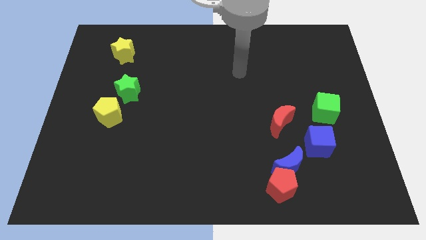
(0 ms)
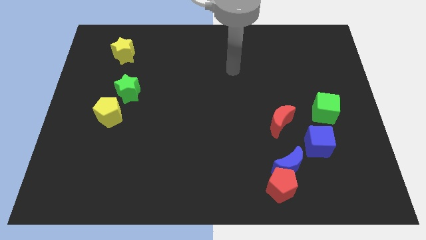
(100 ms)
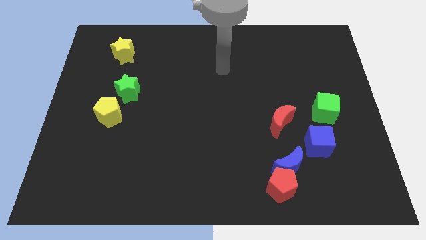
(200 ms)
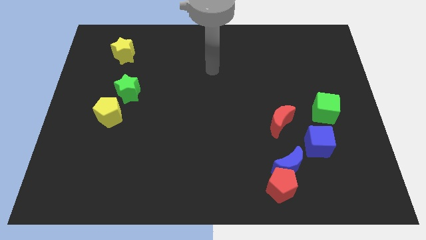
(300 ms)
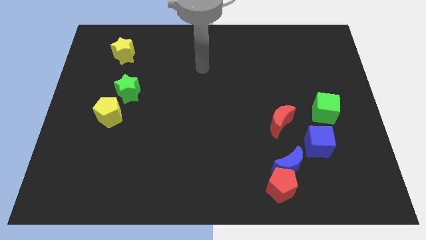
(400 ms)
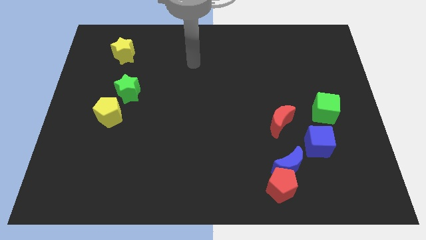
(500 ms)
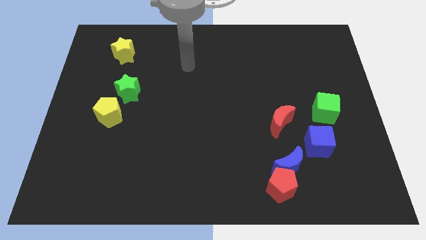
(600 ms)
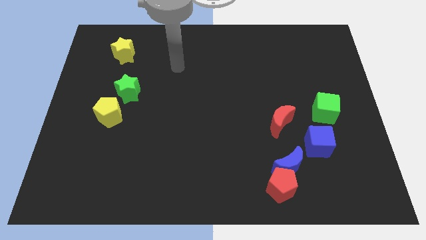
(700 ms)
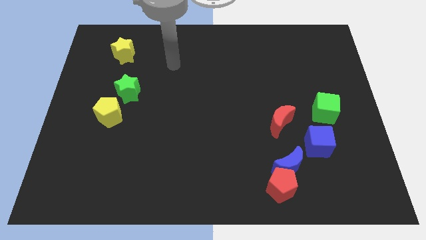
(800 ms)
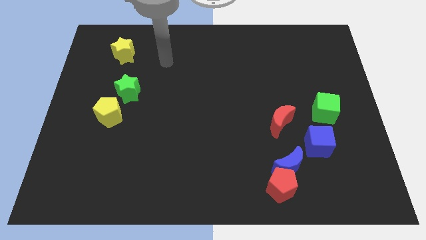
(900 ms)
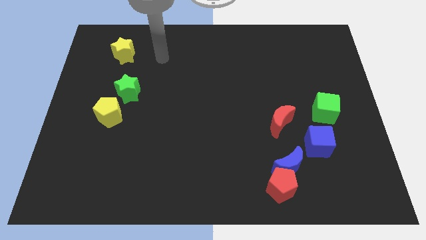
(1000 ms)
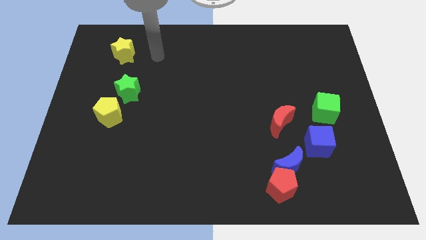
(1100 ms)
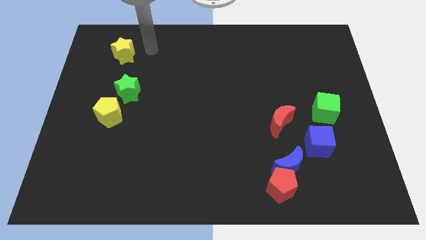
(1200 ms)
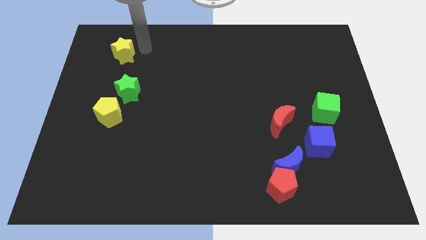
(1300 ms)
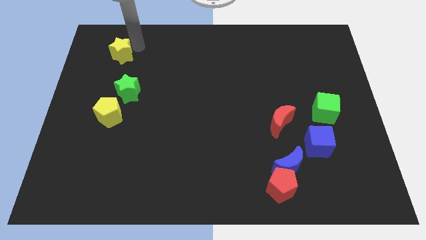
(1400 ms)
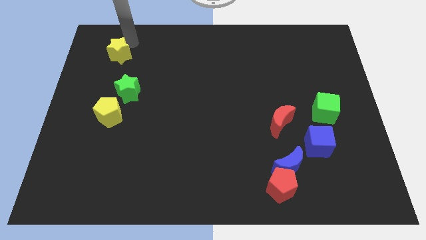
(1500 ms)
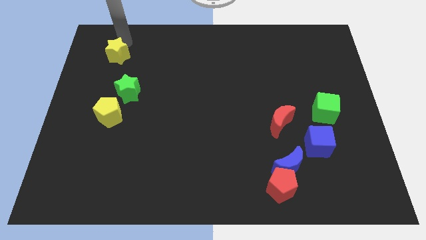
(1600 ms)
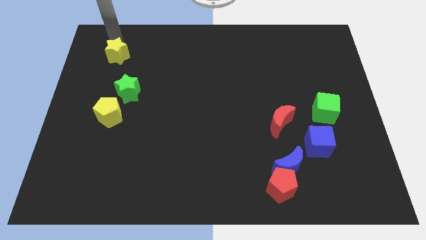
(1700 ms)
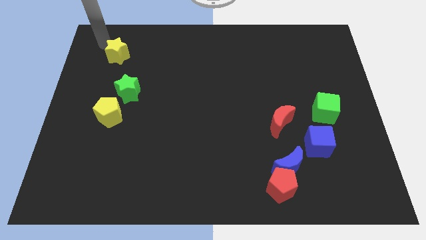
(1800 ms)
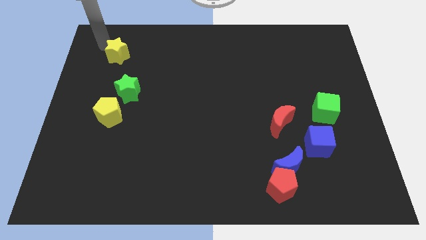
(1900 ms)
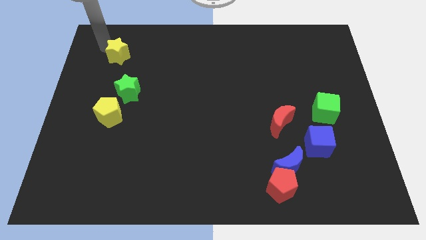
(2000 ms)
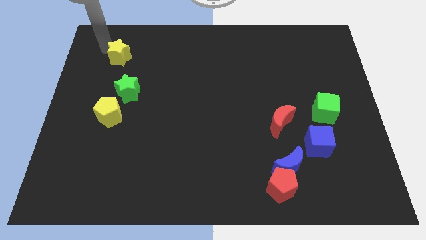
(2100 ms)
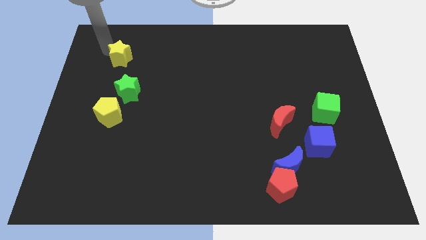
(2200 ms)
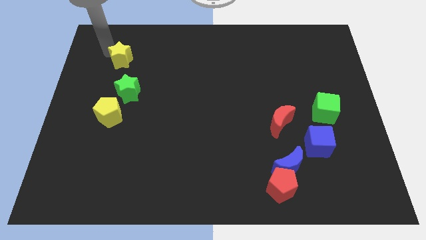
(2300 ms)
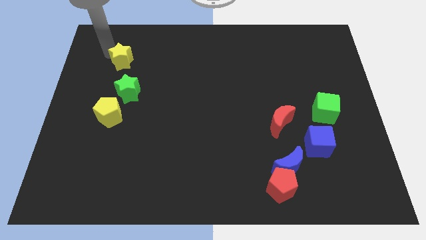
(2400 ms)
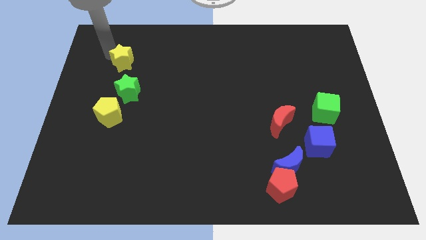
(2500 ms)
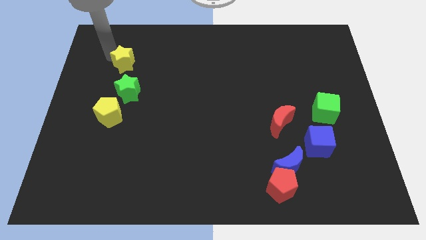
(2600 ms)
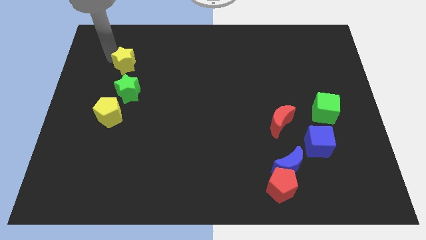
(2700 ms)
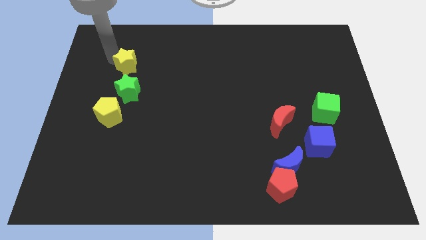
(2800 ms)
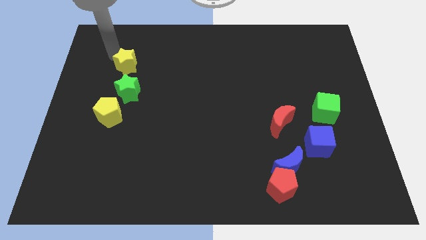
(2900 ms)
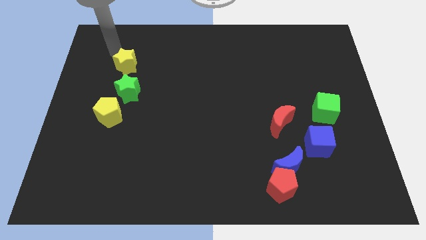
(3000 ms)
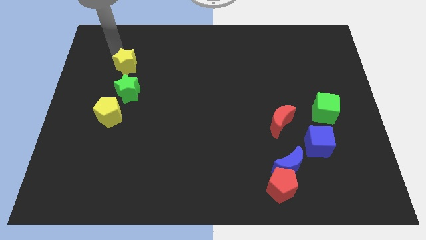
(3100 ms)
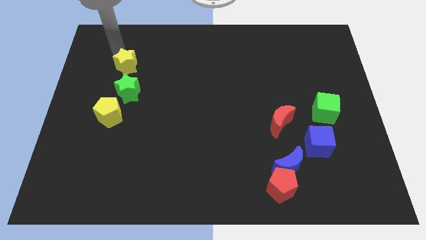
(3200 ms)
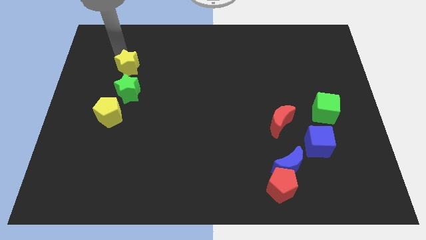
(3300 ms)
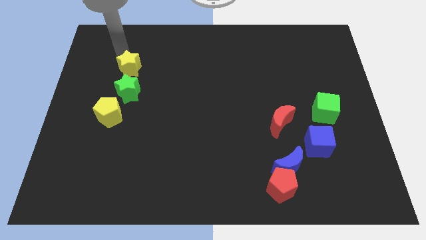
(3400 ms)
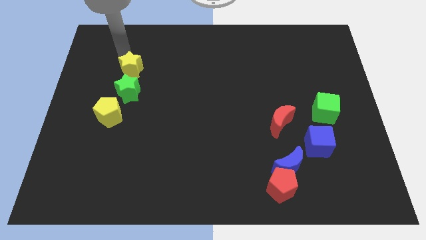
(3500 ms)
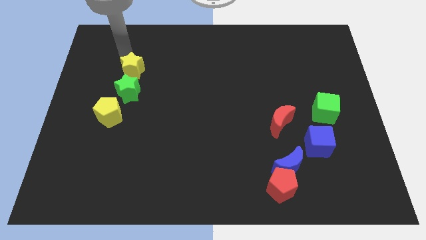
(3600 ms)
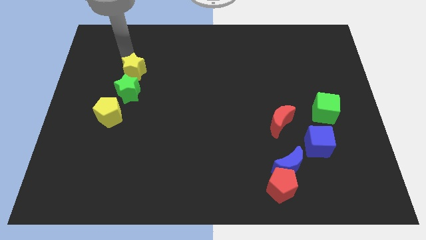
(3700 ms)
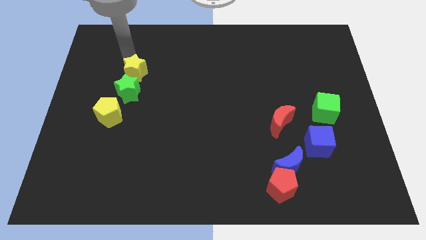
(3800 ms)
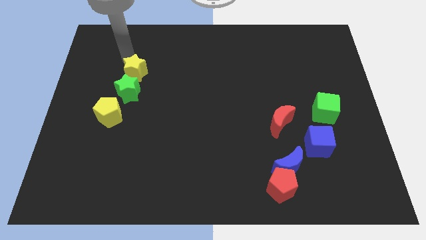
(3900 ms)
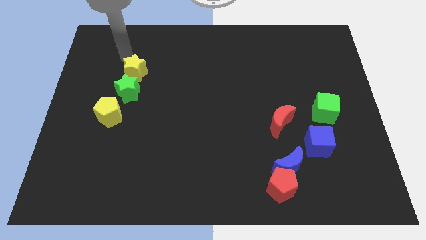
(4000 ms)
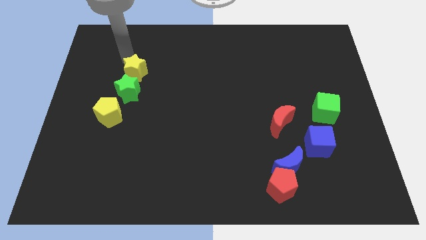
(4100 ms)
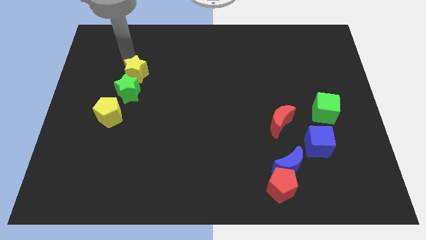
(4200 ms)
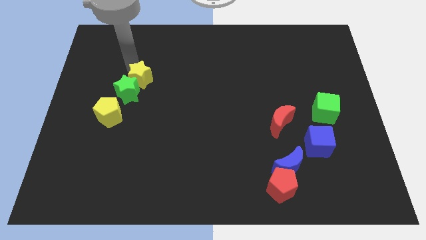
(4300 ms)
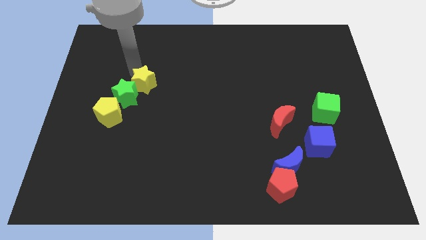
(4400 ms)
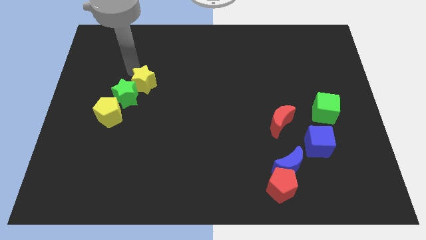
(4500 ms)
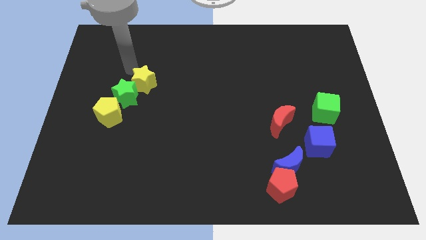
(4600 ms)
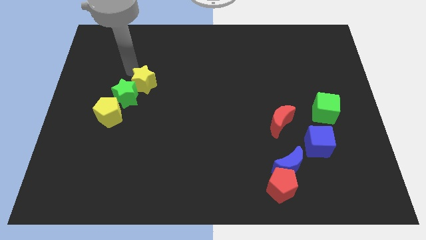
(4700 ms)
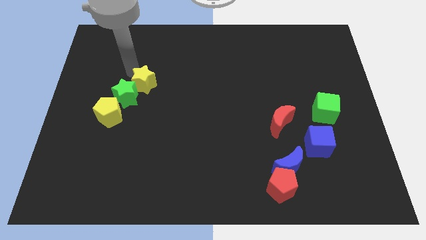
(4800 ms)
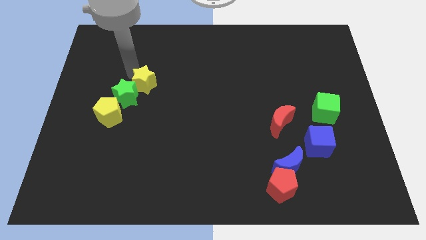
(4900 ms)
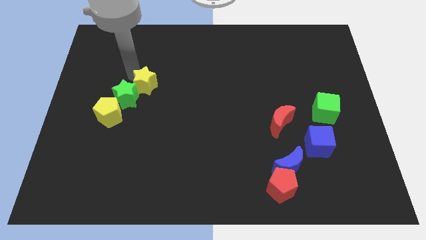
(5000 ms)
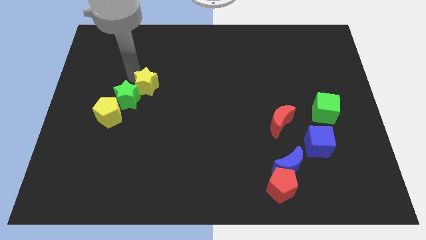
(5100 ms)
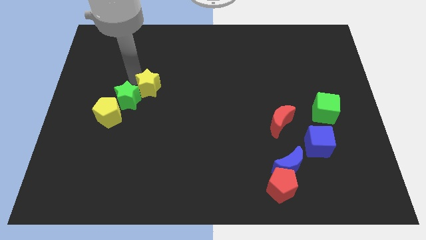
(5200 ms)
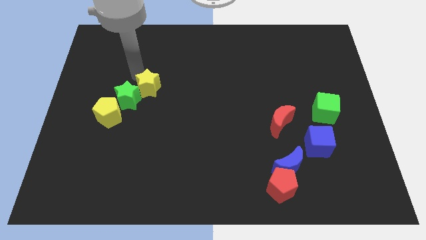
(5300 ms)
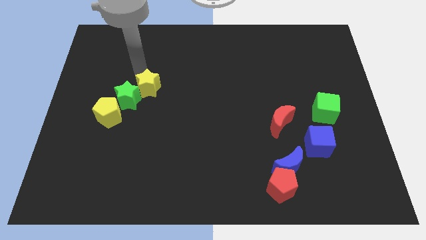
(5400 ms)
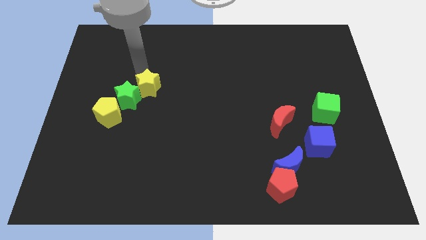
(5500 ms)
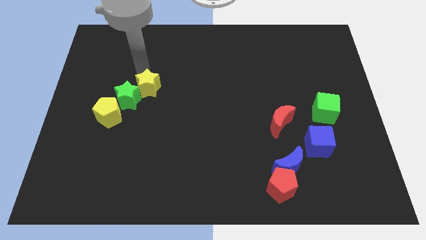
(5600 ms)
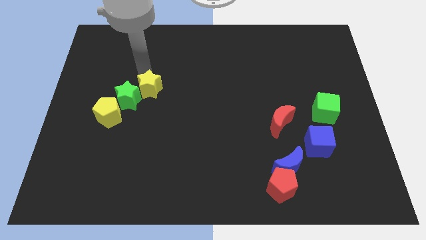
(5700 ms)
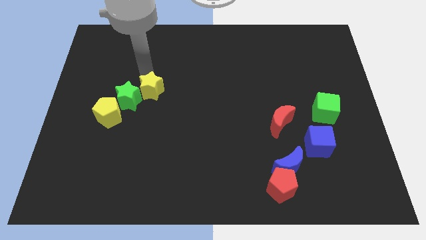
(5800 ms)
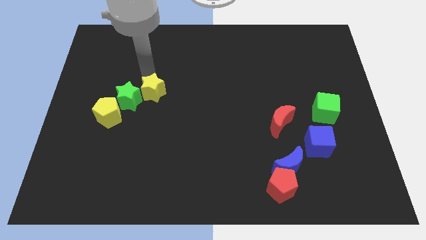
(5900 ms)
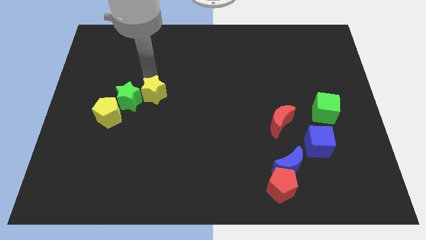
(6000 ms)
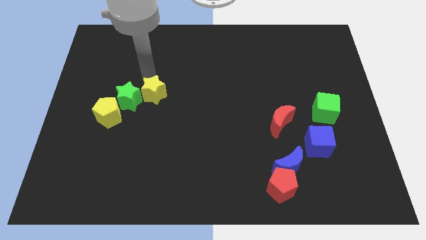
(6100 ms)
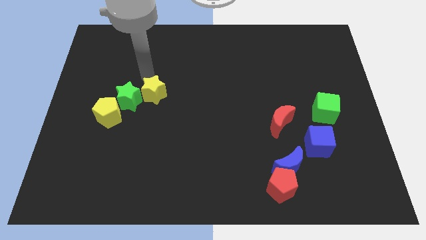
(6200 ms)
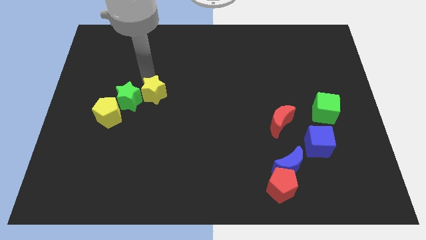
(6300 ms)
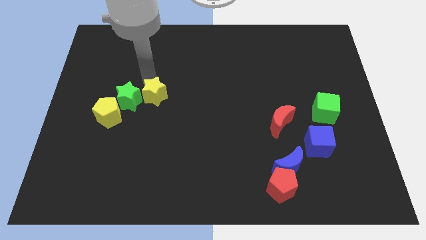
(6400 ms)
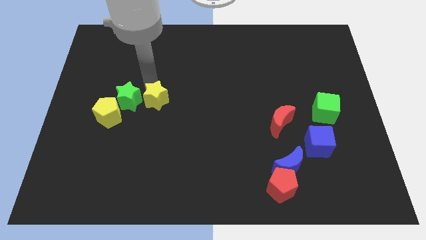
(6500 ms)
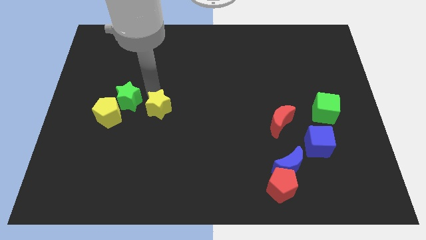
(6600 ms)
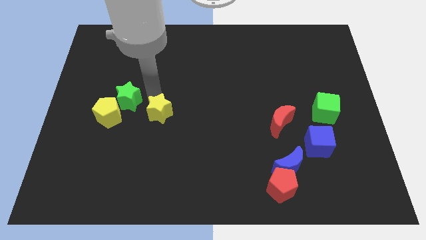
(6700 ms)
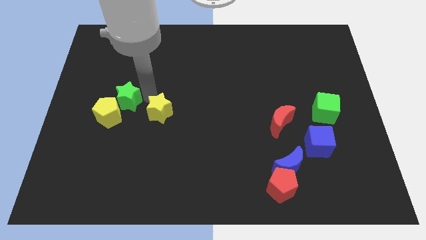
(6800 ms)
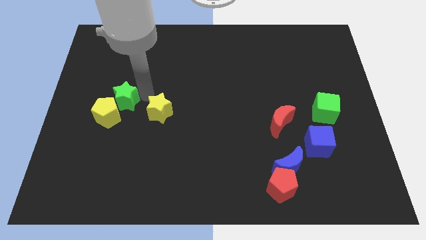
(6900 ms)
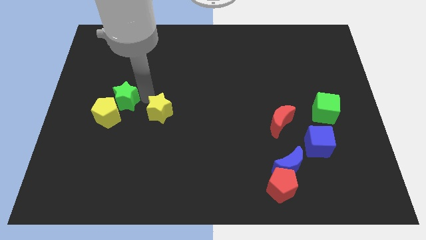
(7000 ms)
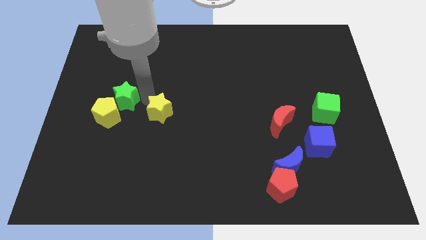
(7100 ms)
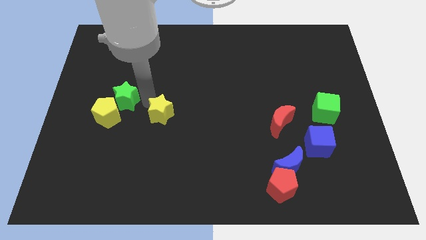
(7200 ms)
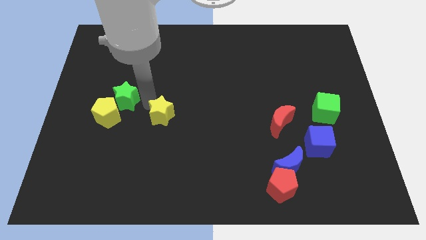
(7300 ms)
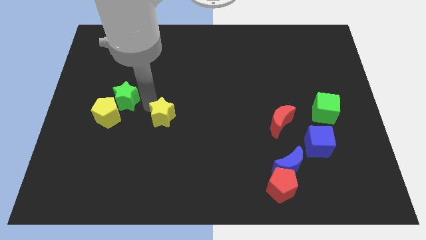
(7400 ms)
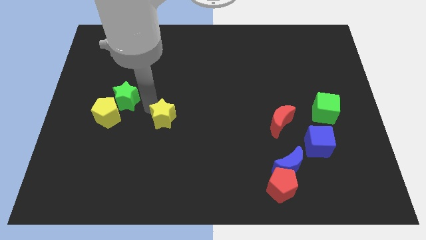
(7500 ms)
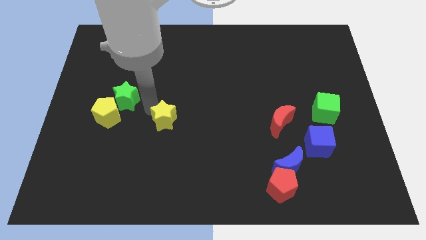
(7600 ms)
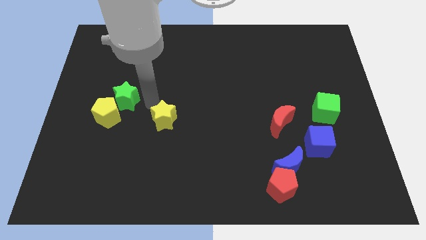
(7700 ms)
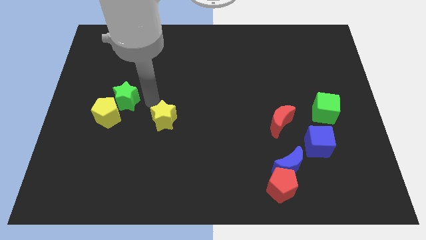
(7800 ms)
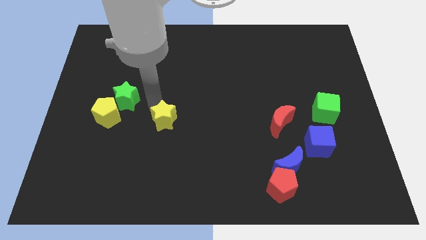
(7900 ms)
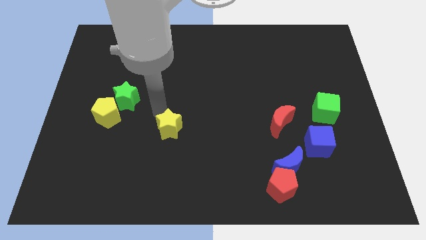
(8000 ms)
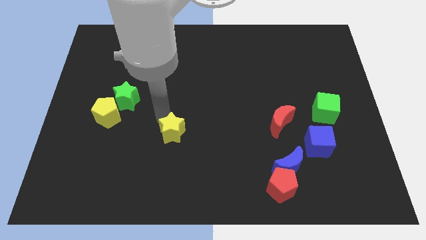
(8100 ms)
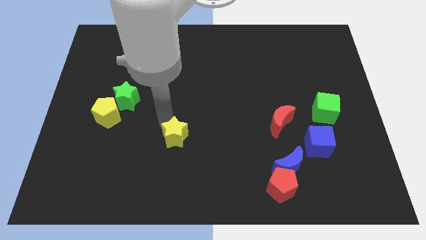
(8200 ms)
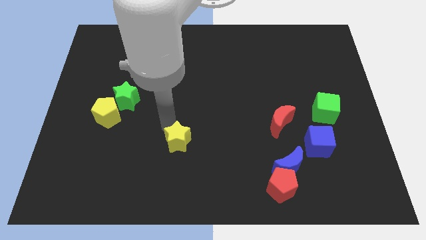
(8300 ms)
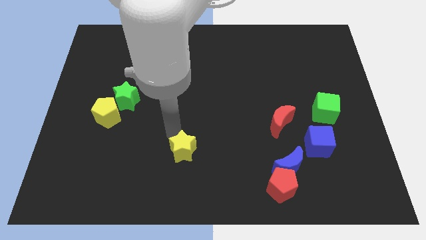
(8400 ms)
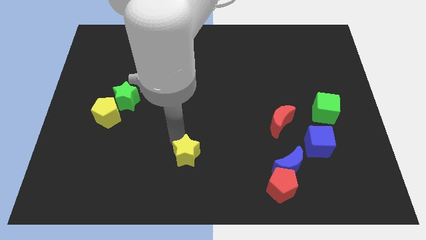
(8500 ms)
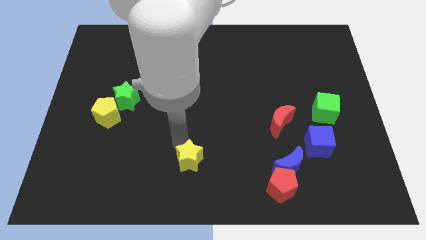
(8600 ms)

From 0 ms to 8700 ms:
put the yellow star to the bottom
